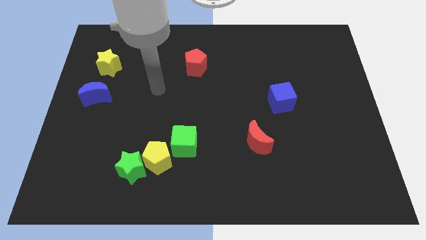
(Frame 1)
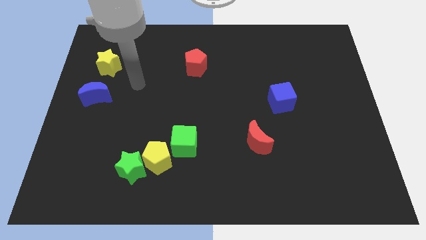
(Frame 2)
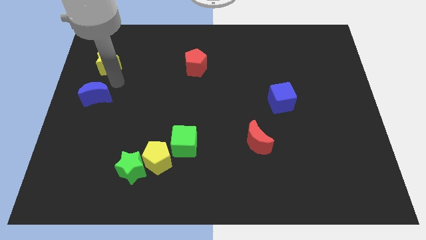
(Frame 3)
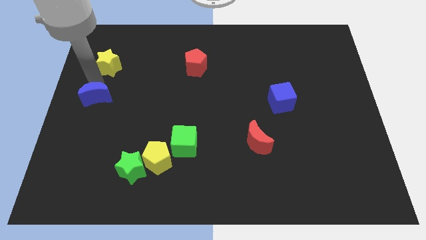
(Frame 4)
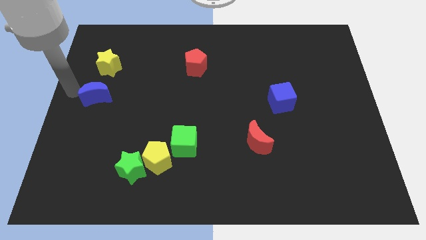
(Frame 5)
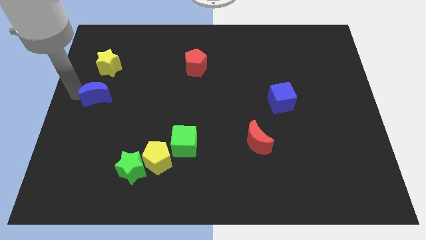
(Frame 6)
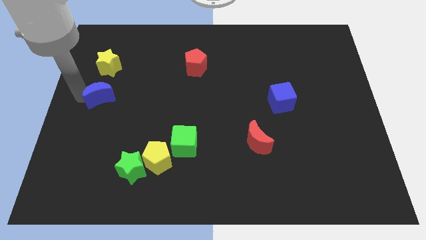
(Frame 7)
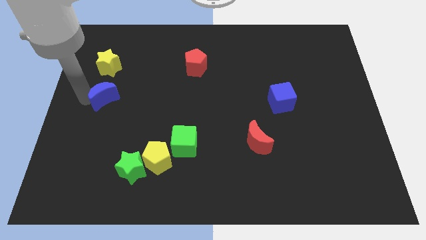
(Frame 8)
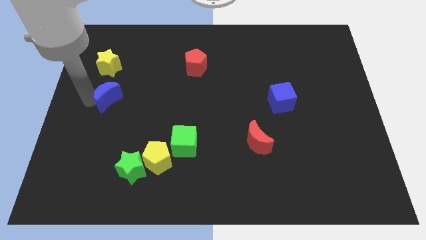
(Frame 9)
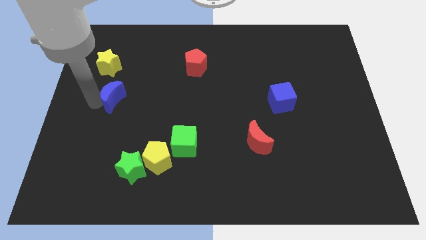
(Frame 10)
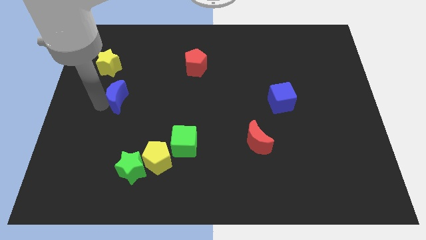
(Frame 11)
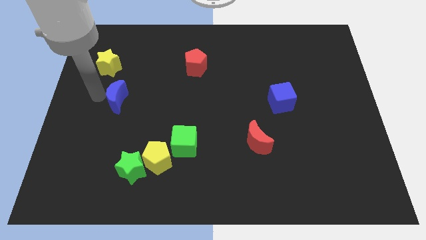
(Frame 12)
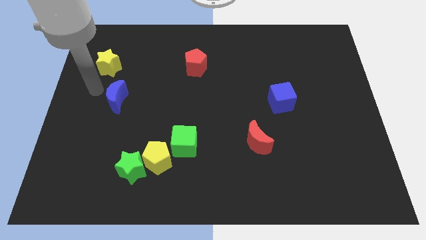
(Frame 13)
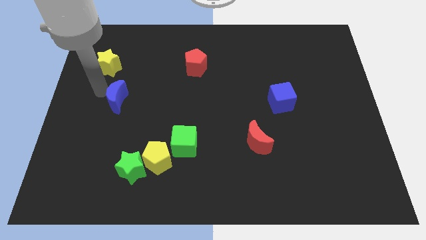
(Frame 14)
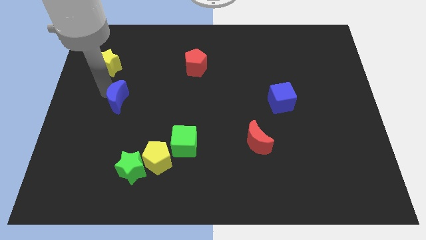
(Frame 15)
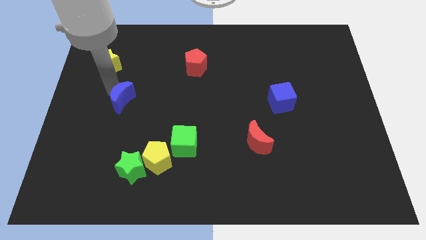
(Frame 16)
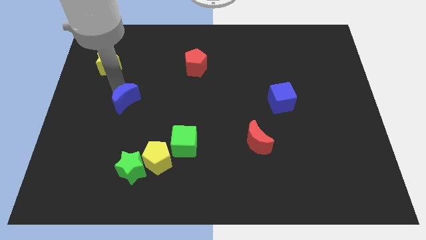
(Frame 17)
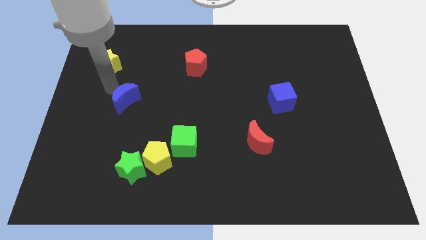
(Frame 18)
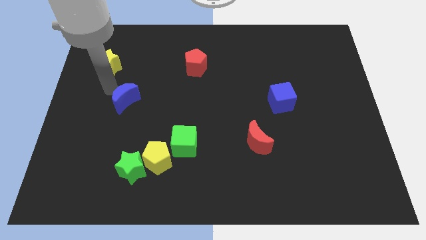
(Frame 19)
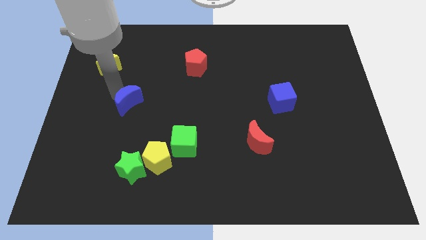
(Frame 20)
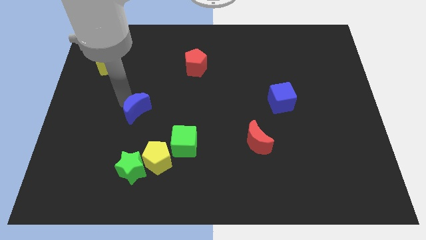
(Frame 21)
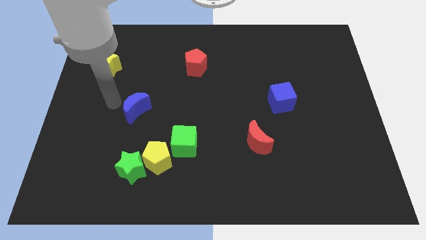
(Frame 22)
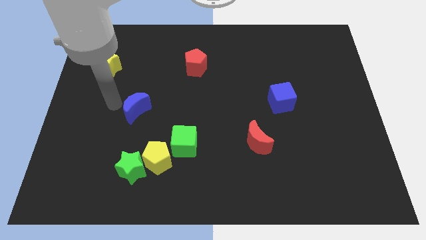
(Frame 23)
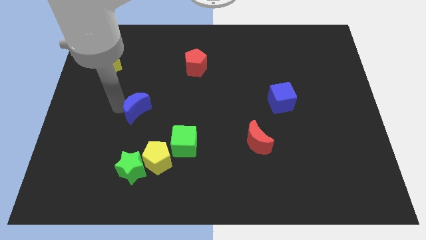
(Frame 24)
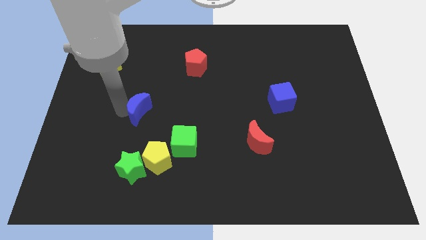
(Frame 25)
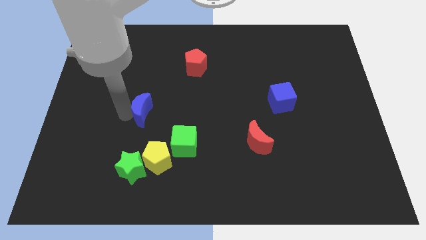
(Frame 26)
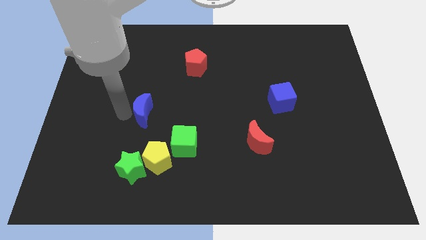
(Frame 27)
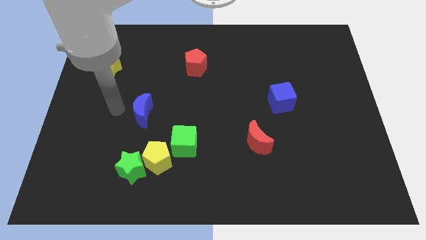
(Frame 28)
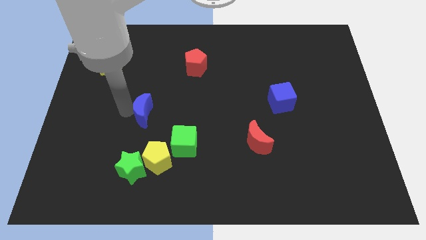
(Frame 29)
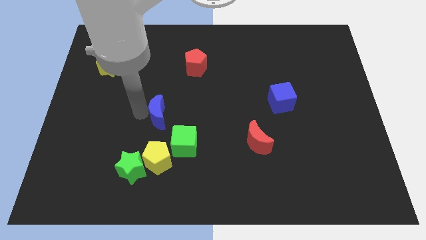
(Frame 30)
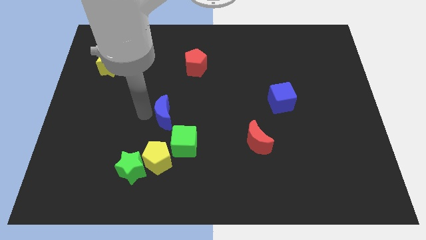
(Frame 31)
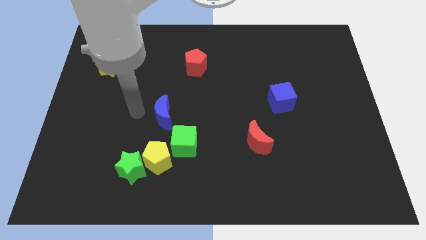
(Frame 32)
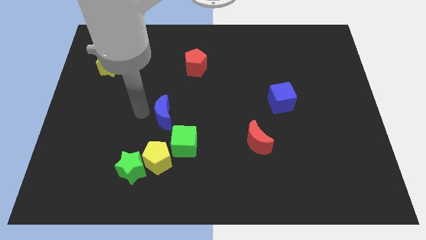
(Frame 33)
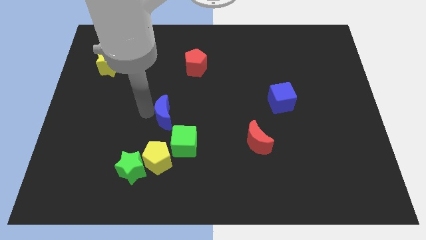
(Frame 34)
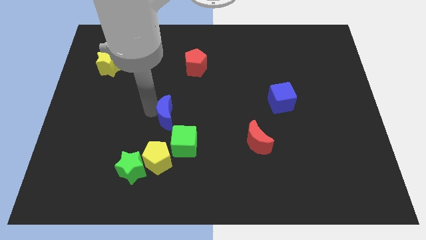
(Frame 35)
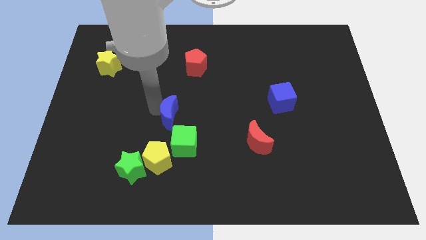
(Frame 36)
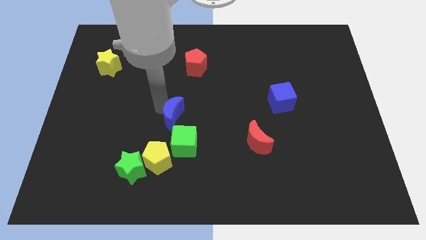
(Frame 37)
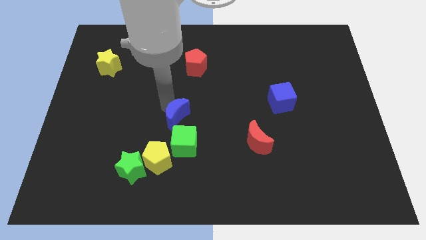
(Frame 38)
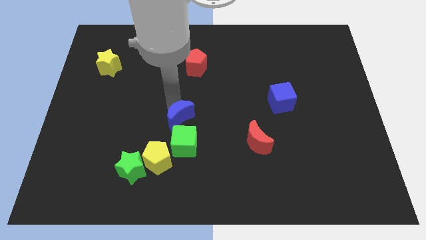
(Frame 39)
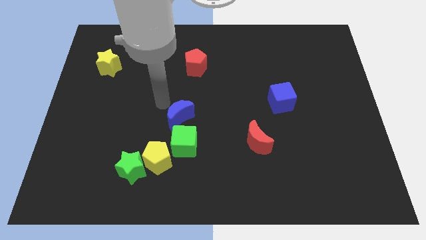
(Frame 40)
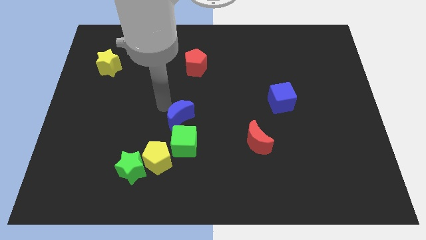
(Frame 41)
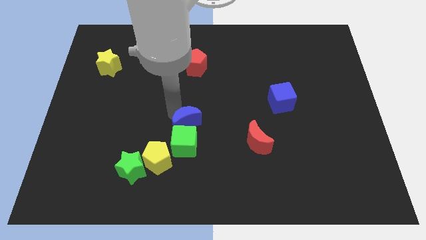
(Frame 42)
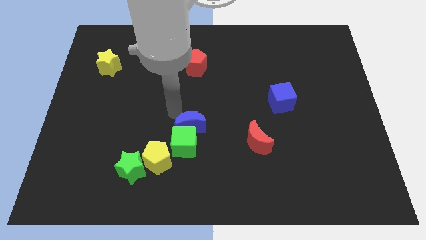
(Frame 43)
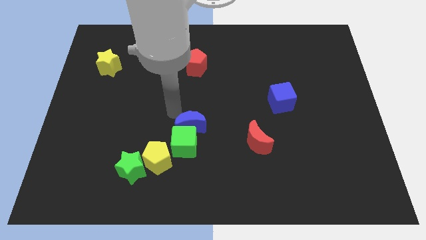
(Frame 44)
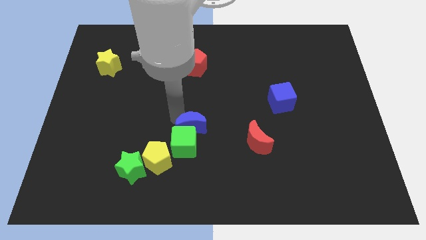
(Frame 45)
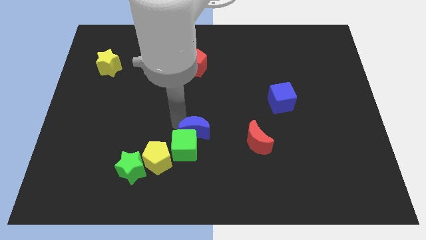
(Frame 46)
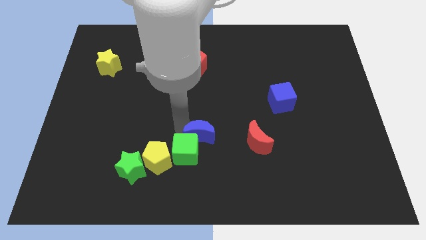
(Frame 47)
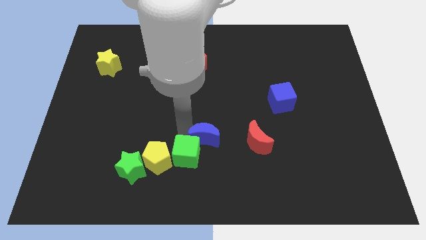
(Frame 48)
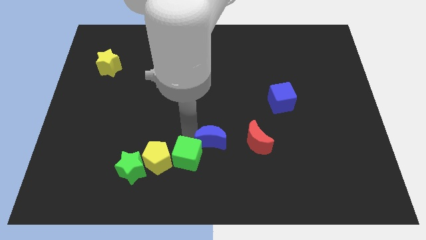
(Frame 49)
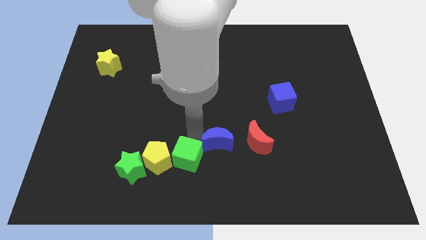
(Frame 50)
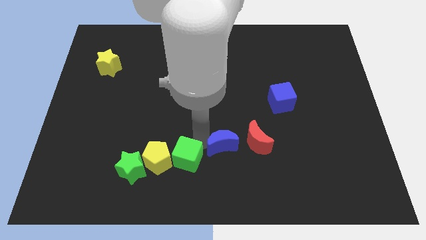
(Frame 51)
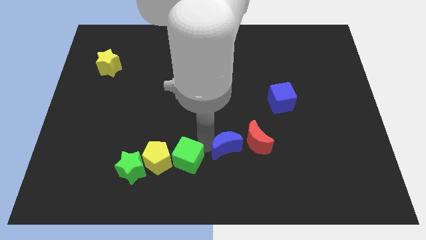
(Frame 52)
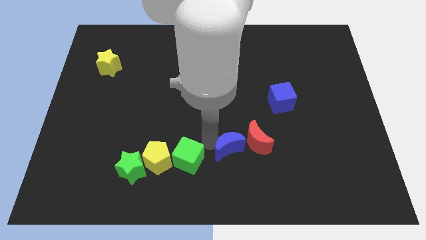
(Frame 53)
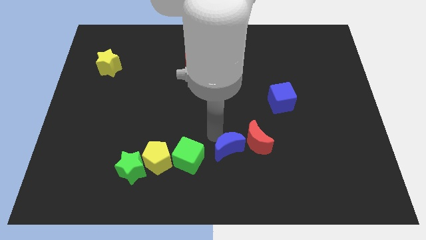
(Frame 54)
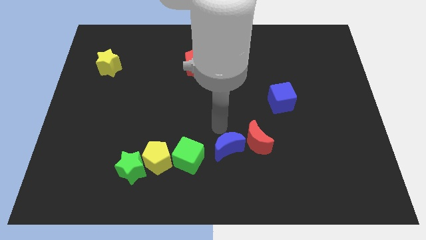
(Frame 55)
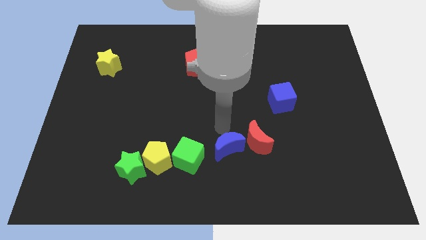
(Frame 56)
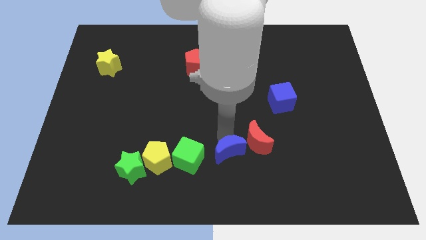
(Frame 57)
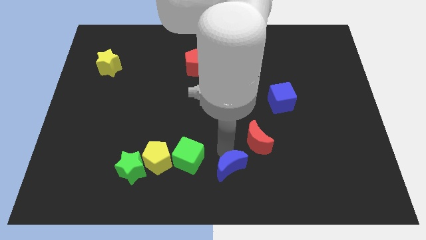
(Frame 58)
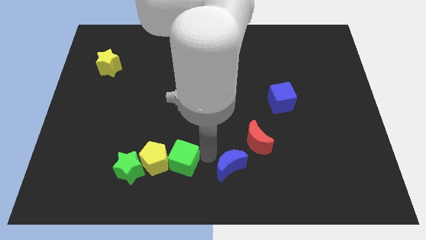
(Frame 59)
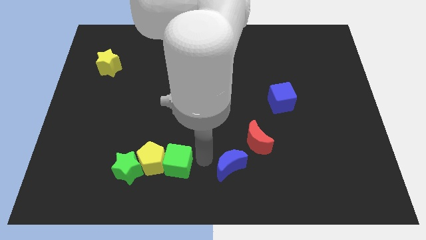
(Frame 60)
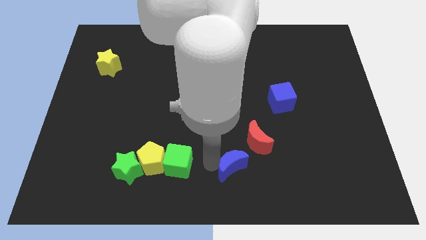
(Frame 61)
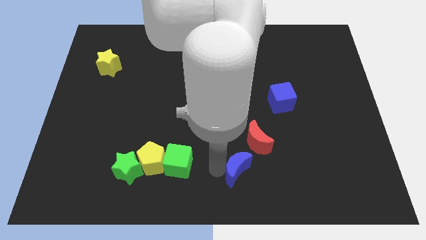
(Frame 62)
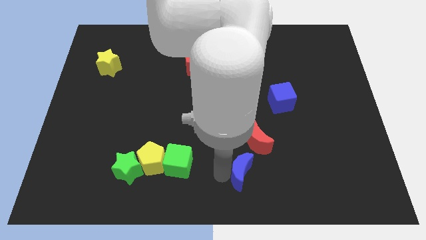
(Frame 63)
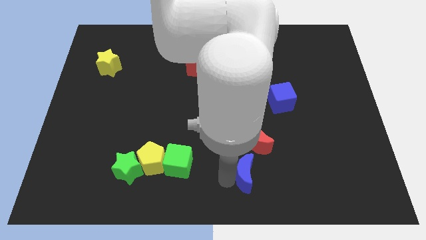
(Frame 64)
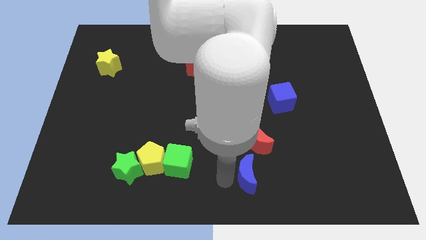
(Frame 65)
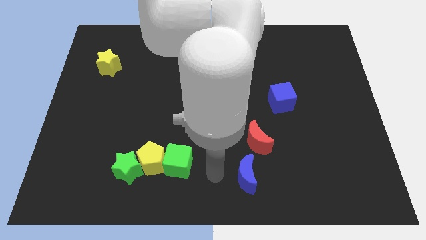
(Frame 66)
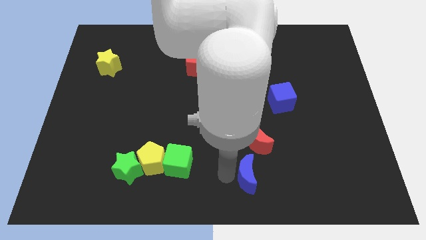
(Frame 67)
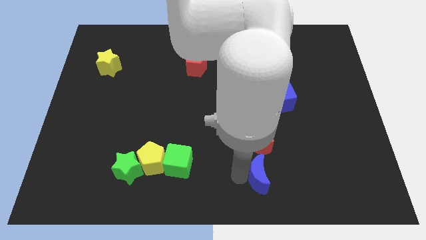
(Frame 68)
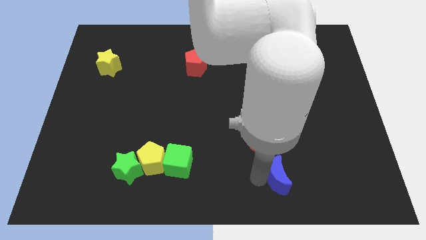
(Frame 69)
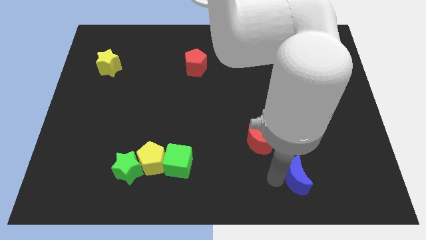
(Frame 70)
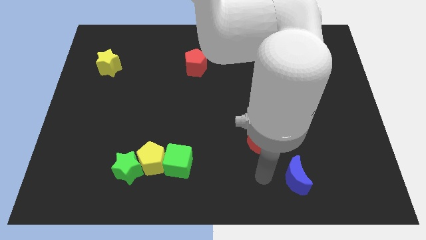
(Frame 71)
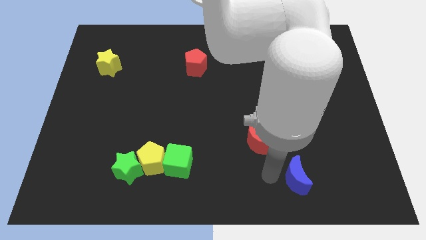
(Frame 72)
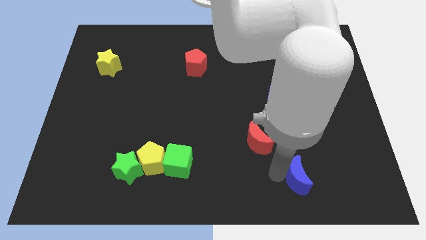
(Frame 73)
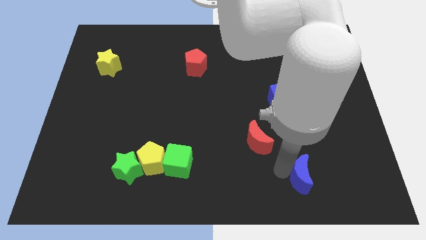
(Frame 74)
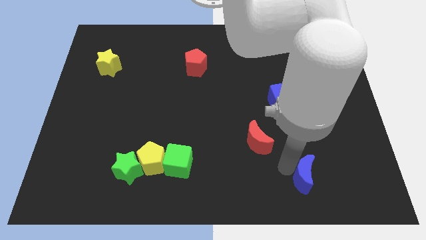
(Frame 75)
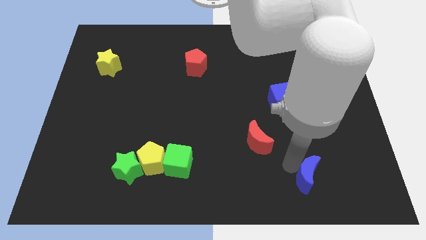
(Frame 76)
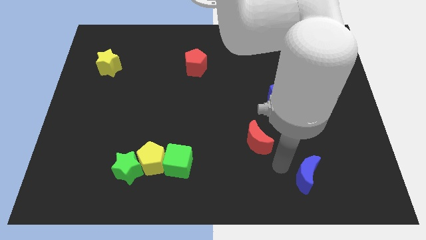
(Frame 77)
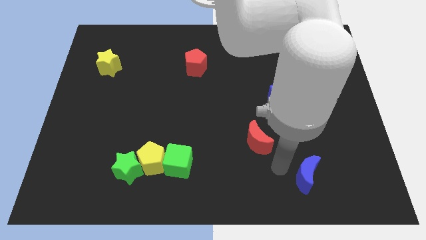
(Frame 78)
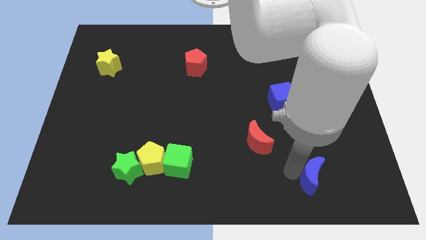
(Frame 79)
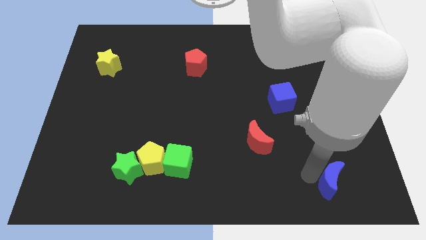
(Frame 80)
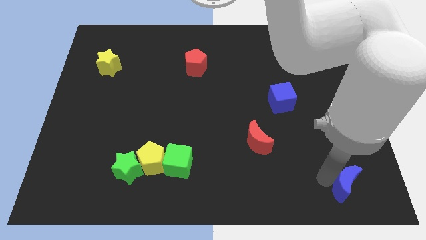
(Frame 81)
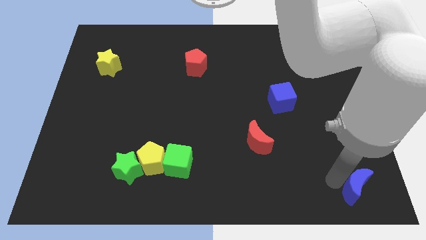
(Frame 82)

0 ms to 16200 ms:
push the blue moon to the bottom right

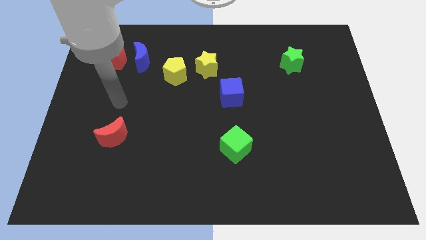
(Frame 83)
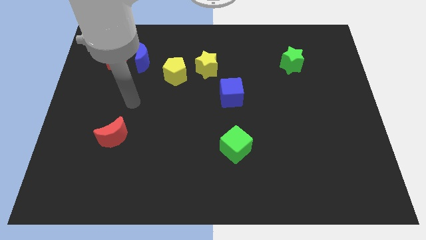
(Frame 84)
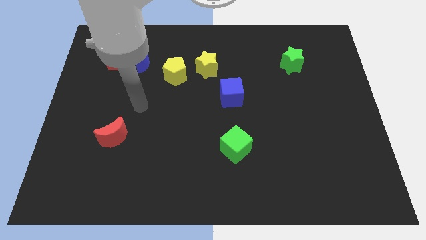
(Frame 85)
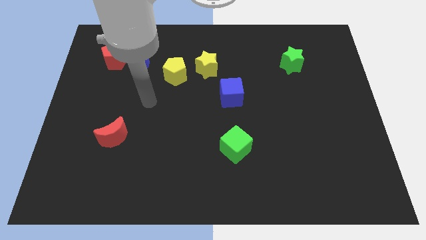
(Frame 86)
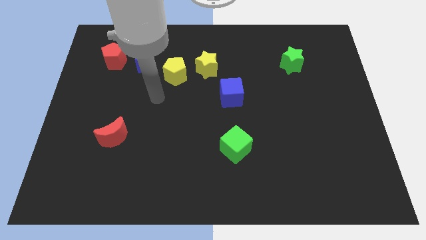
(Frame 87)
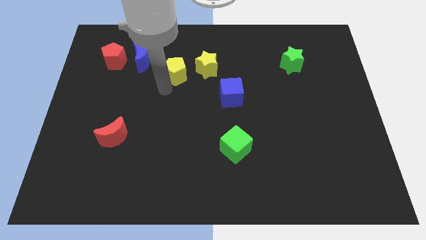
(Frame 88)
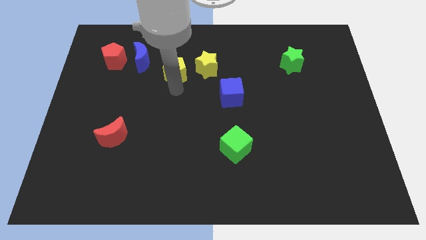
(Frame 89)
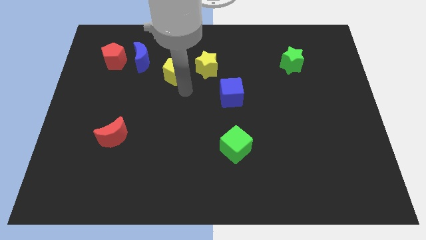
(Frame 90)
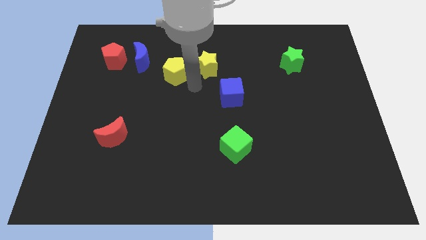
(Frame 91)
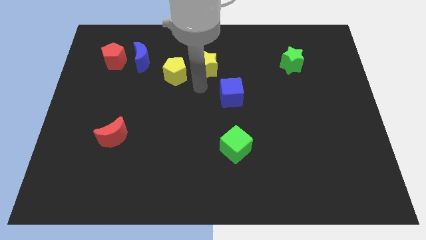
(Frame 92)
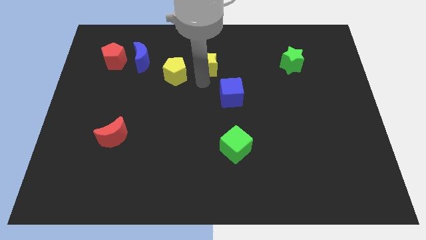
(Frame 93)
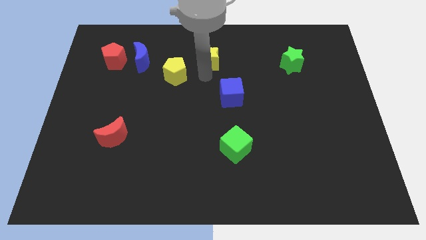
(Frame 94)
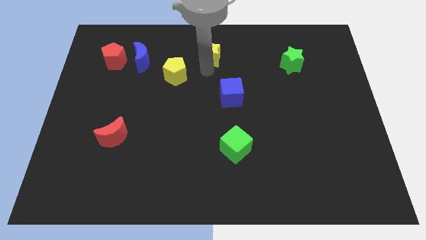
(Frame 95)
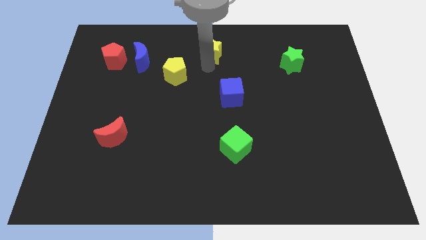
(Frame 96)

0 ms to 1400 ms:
push the yellow star to the towards your base
